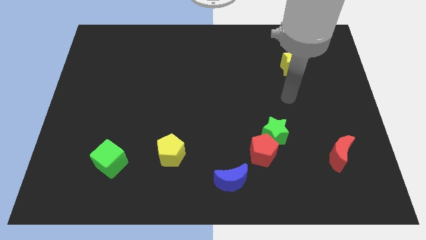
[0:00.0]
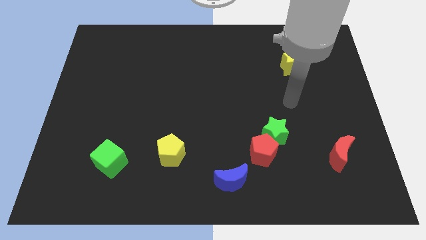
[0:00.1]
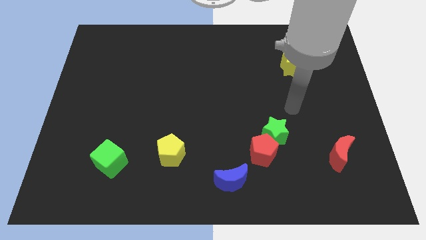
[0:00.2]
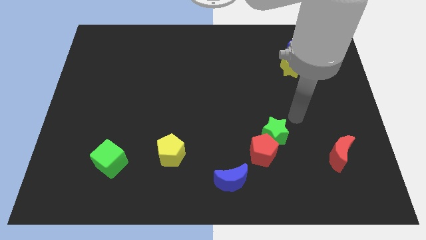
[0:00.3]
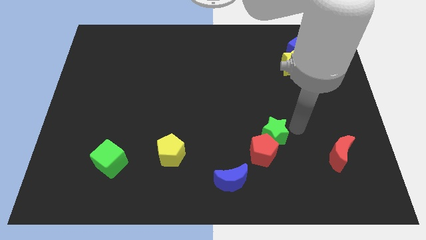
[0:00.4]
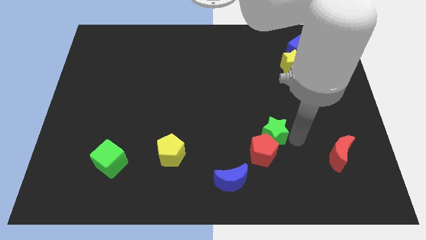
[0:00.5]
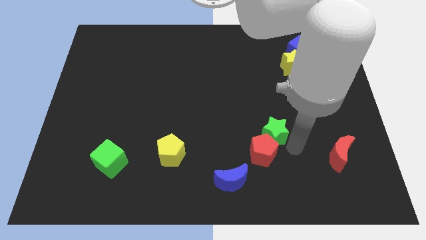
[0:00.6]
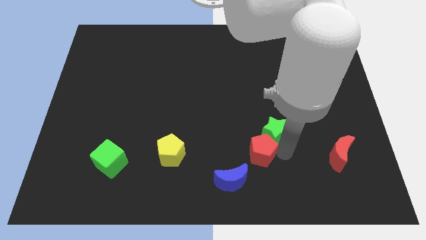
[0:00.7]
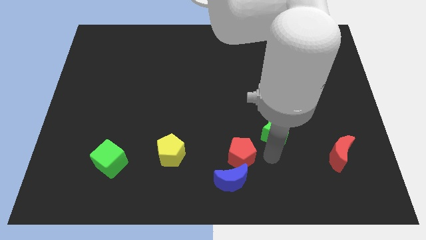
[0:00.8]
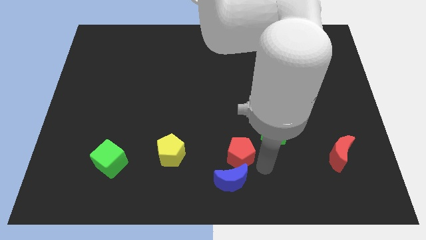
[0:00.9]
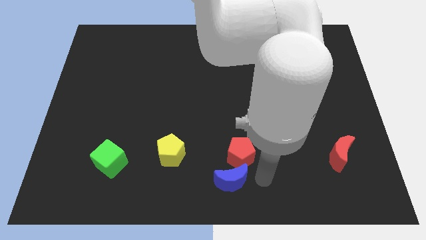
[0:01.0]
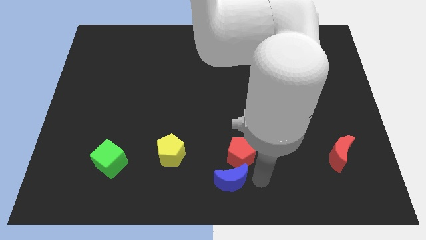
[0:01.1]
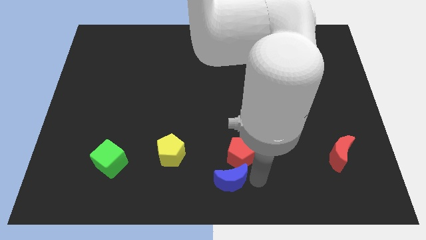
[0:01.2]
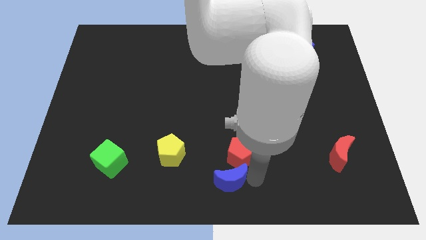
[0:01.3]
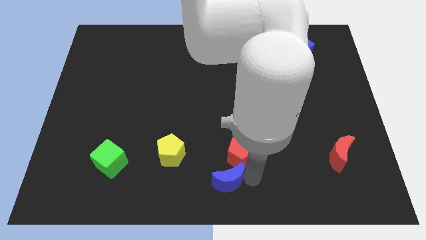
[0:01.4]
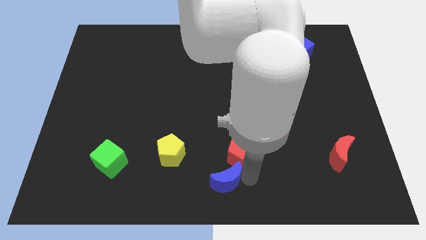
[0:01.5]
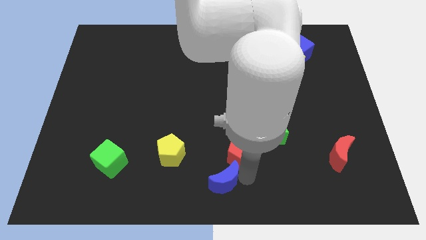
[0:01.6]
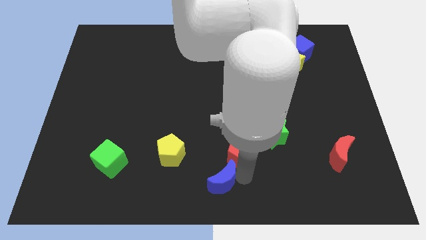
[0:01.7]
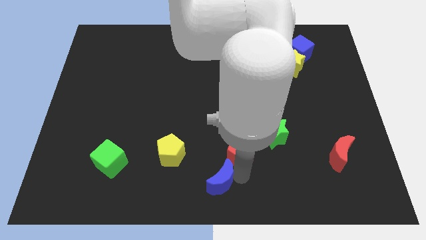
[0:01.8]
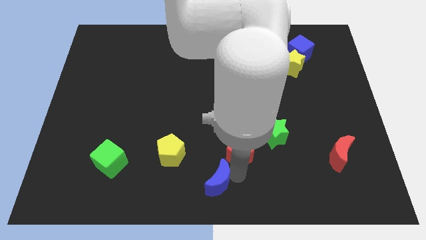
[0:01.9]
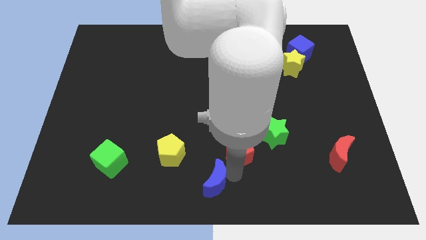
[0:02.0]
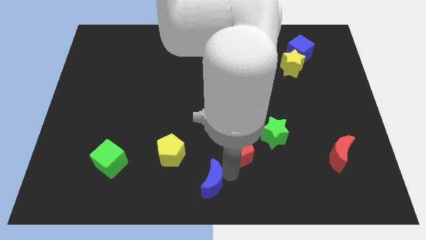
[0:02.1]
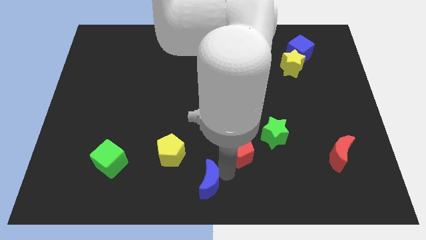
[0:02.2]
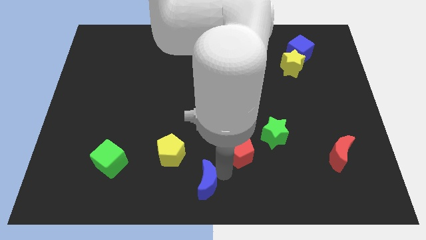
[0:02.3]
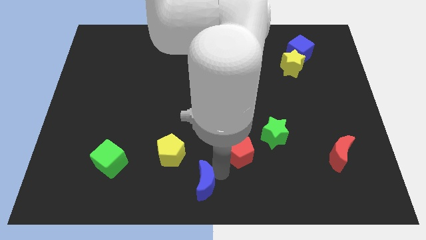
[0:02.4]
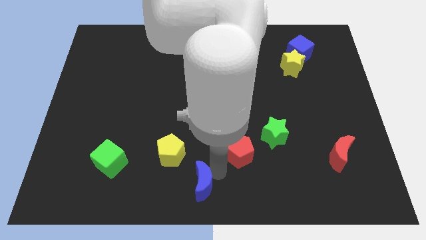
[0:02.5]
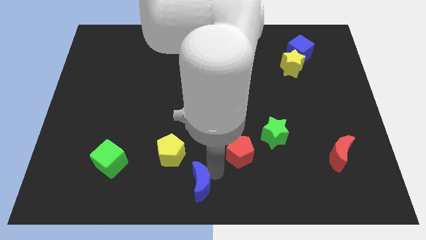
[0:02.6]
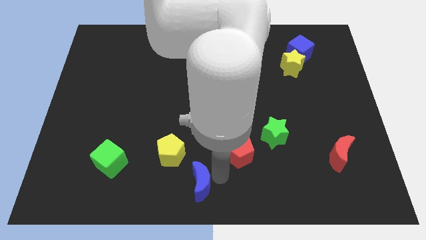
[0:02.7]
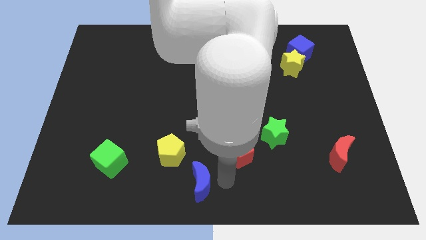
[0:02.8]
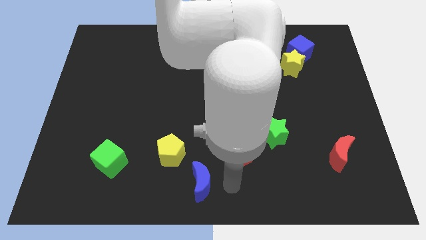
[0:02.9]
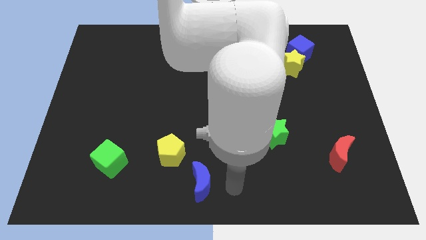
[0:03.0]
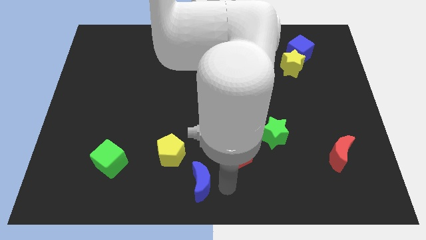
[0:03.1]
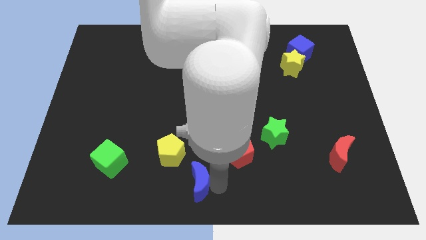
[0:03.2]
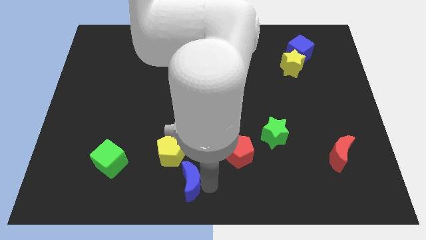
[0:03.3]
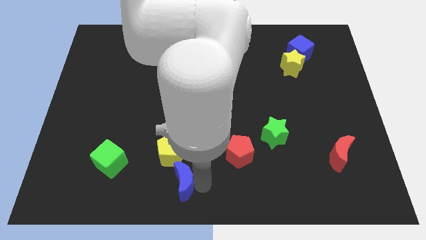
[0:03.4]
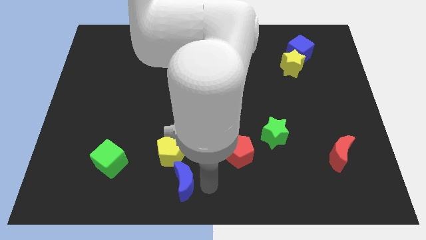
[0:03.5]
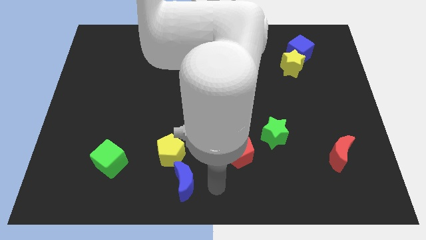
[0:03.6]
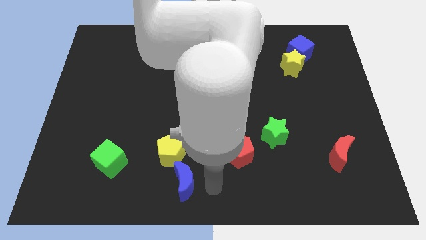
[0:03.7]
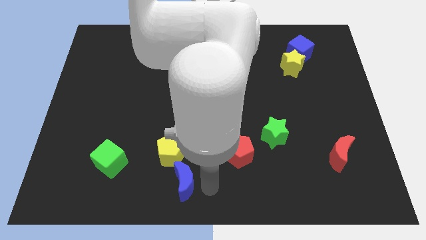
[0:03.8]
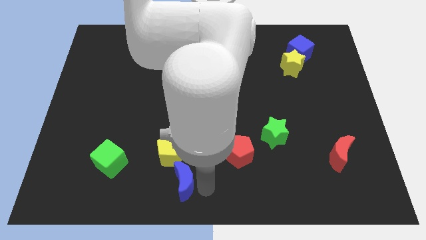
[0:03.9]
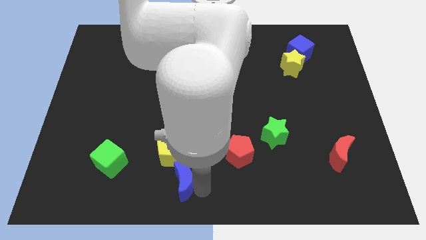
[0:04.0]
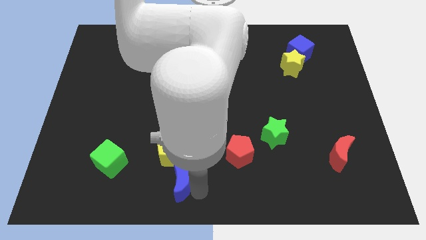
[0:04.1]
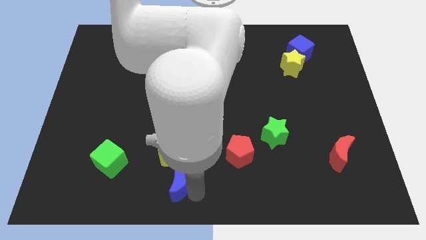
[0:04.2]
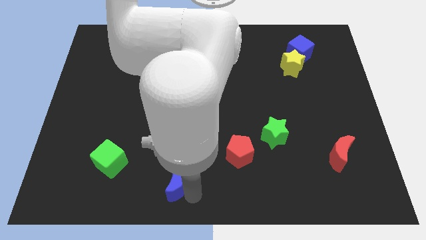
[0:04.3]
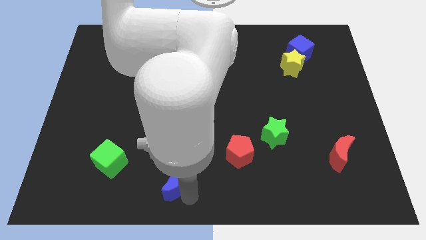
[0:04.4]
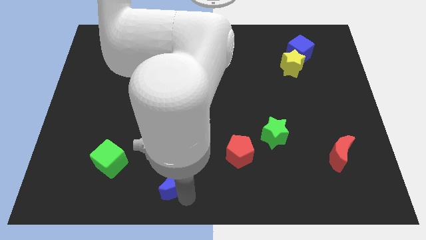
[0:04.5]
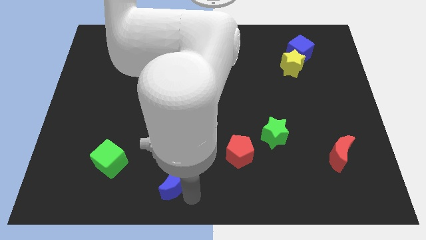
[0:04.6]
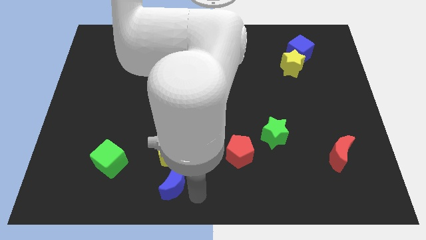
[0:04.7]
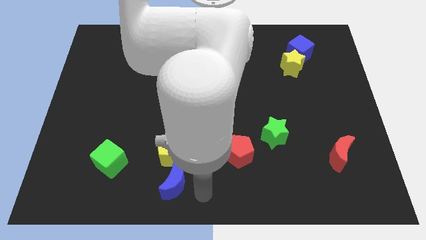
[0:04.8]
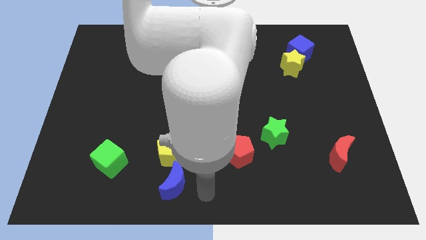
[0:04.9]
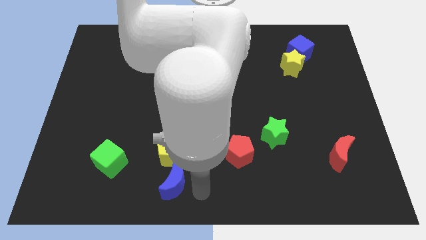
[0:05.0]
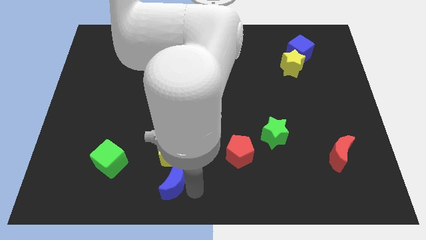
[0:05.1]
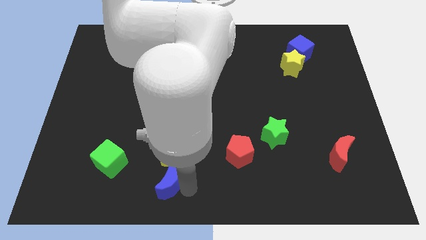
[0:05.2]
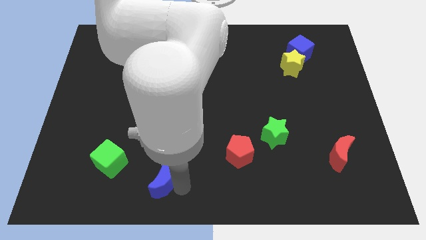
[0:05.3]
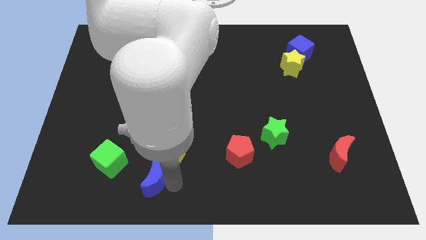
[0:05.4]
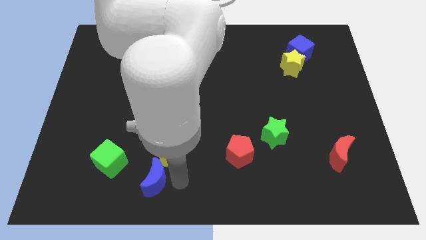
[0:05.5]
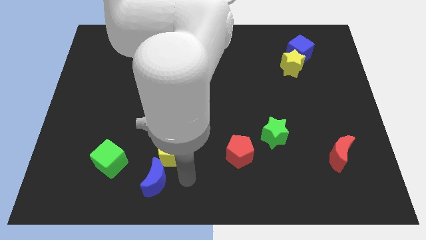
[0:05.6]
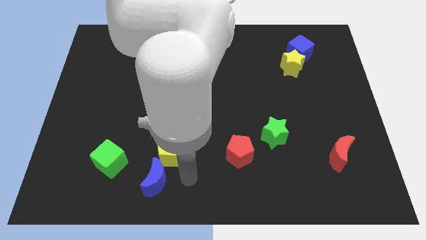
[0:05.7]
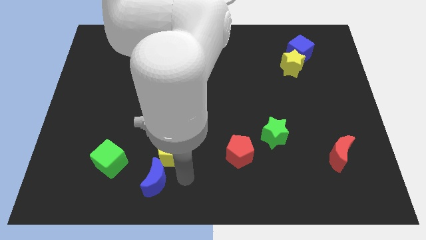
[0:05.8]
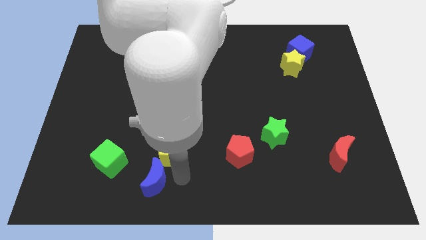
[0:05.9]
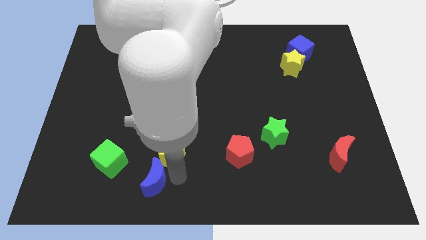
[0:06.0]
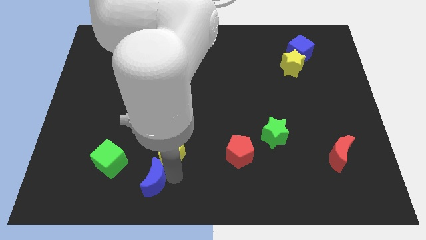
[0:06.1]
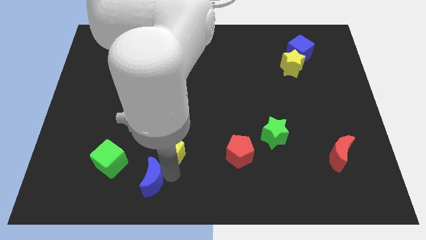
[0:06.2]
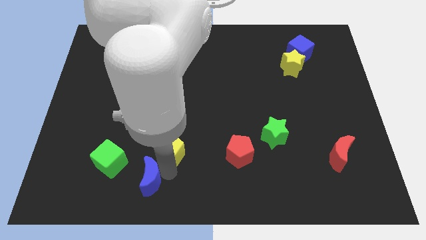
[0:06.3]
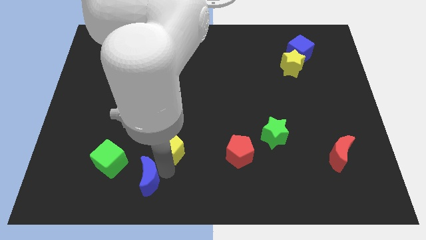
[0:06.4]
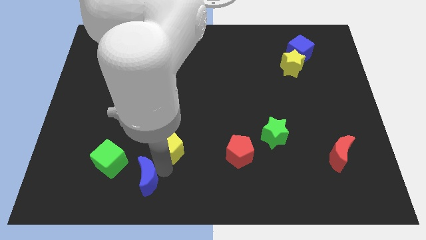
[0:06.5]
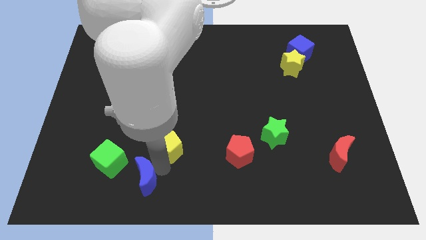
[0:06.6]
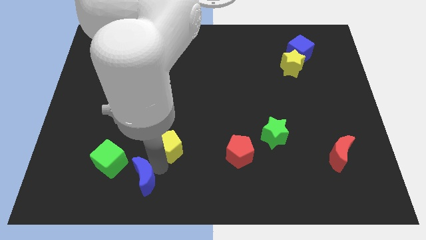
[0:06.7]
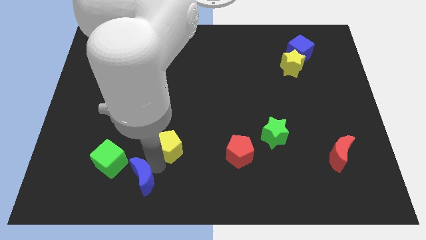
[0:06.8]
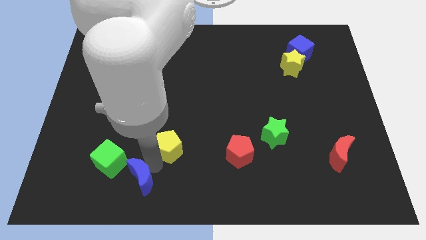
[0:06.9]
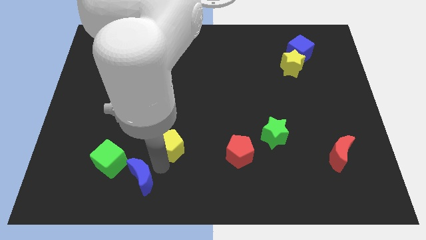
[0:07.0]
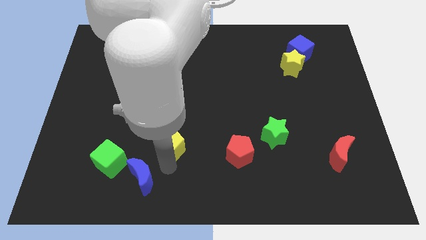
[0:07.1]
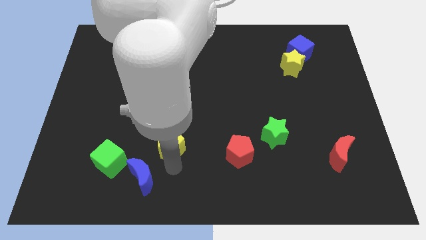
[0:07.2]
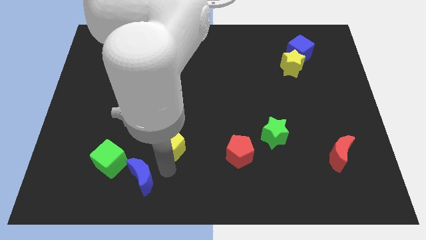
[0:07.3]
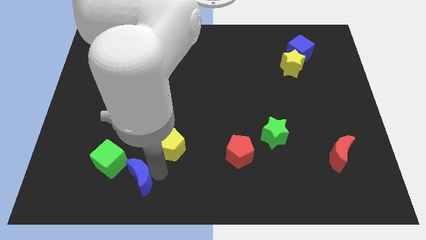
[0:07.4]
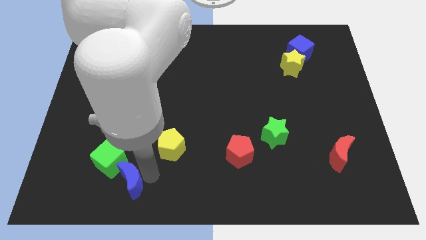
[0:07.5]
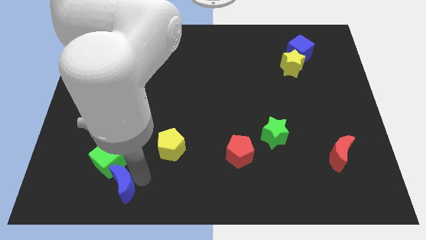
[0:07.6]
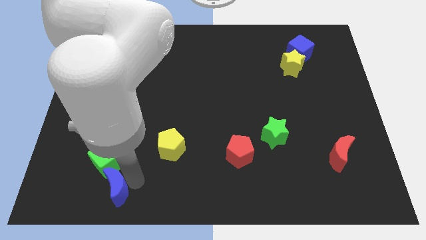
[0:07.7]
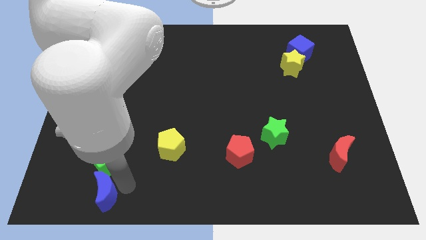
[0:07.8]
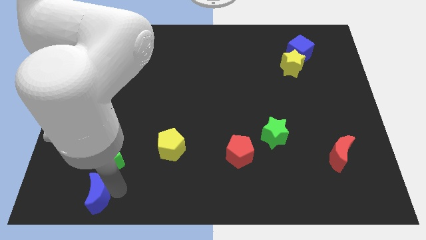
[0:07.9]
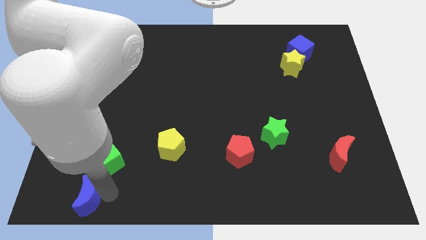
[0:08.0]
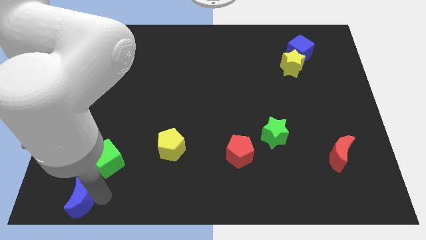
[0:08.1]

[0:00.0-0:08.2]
put the blue moon to the bottom left corner
